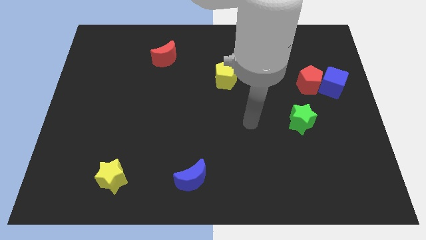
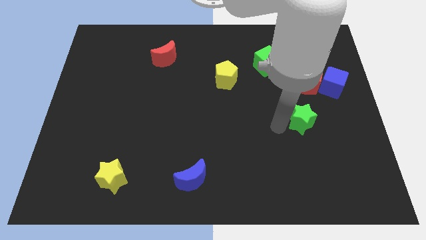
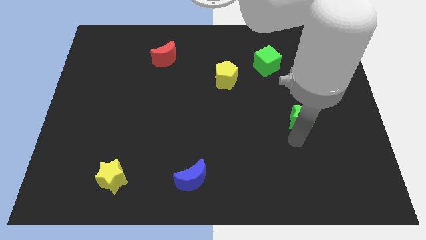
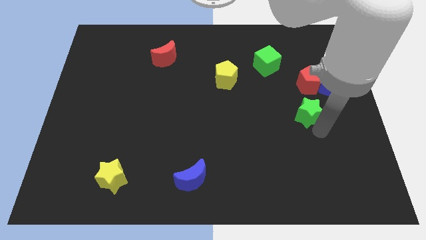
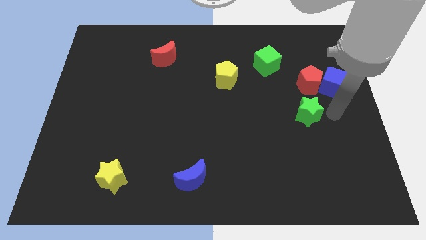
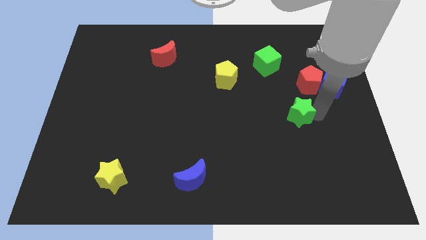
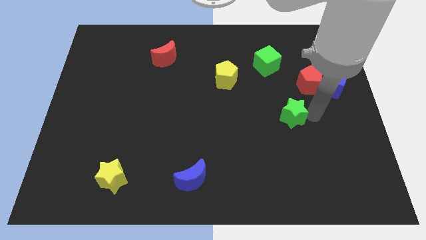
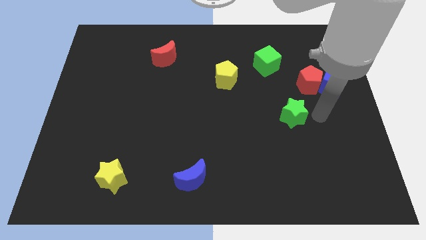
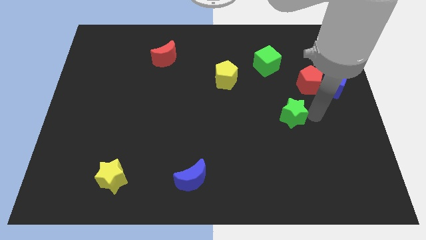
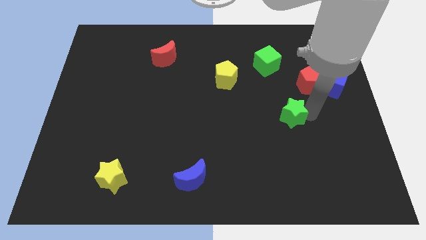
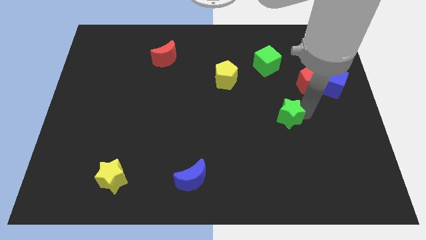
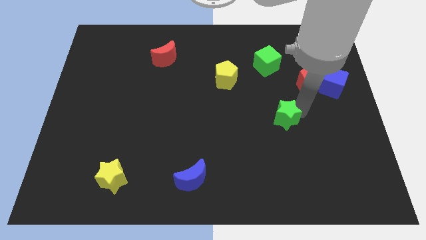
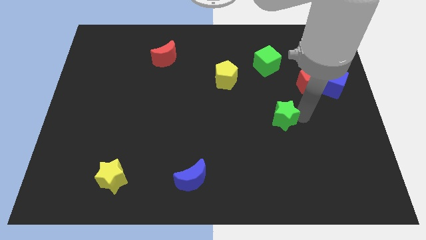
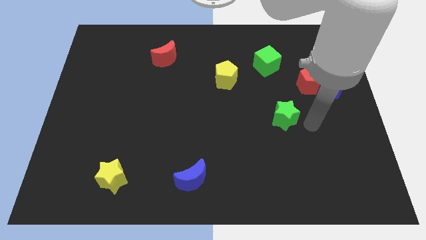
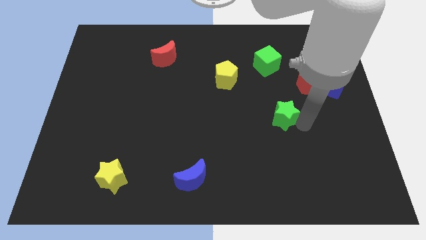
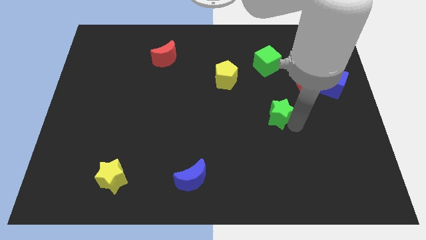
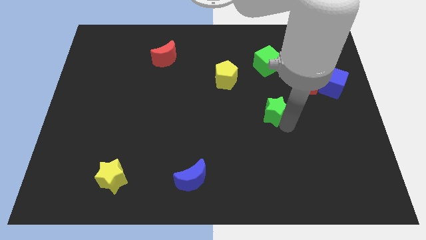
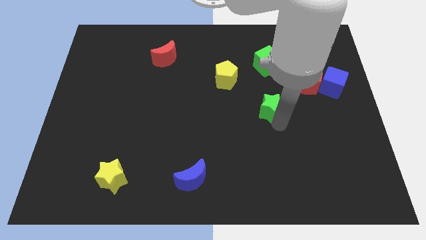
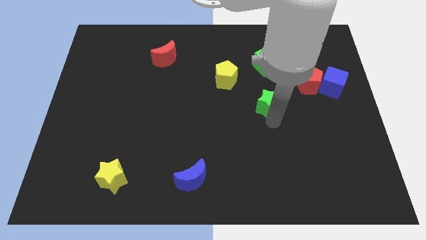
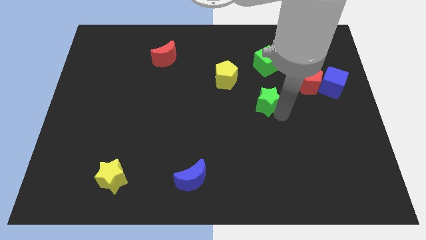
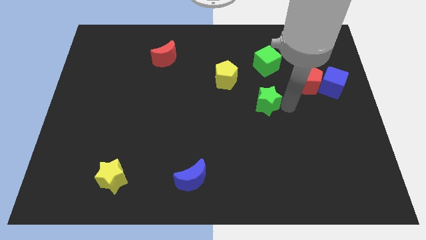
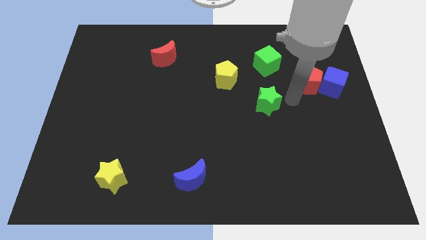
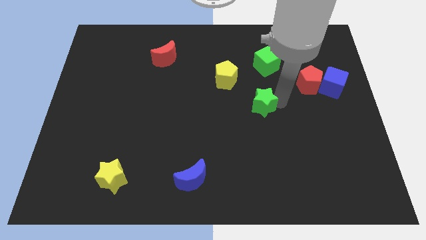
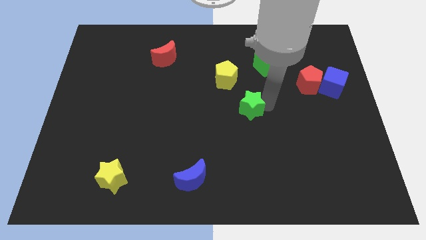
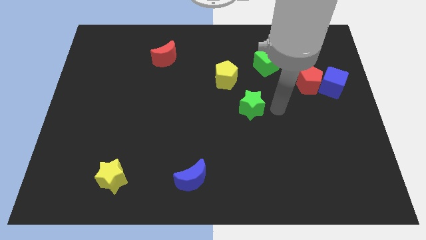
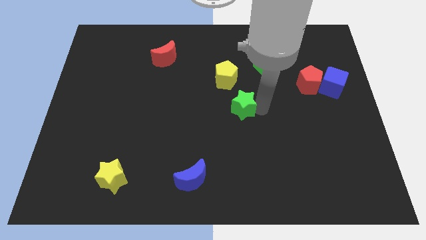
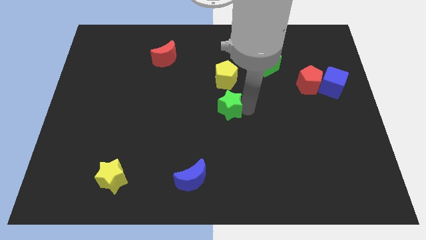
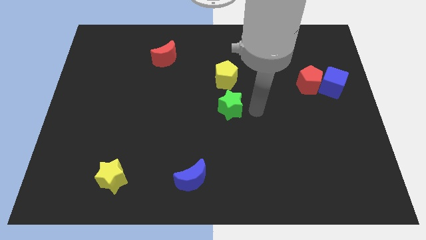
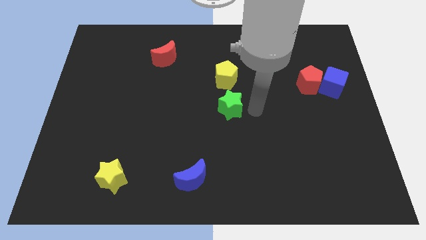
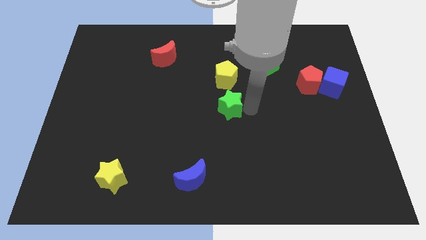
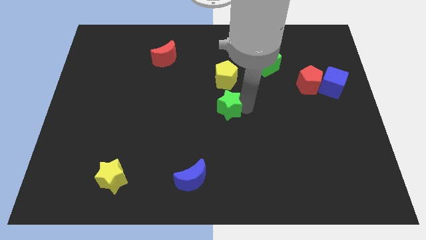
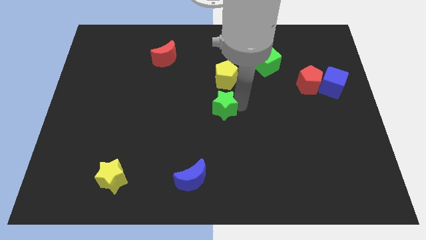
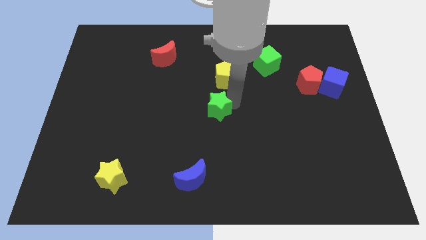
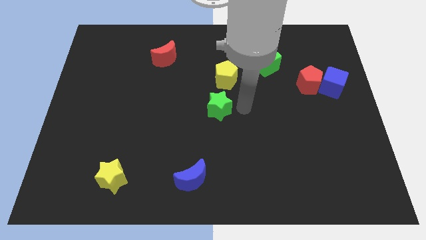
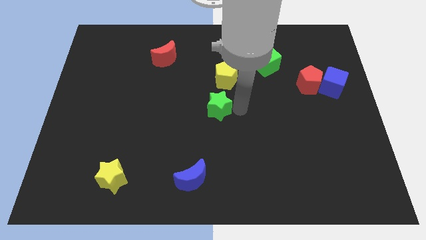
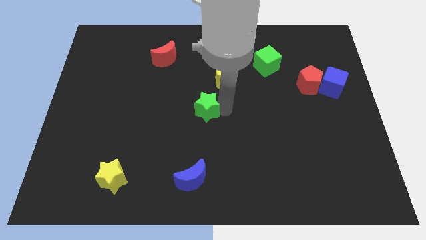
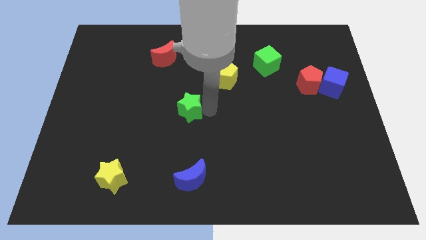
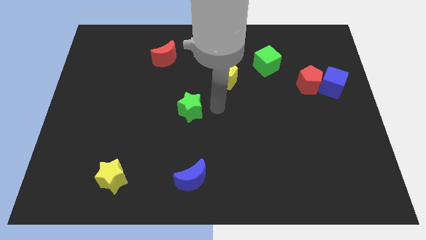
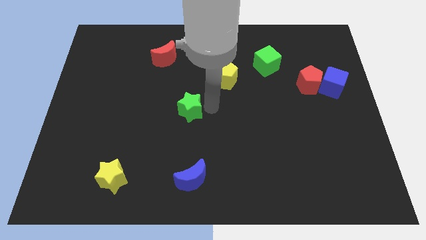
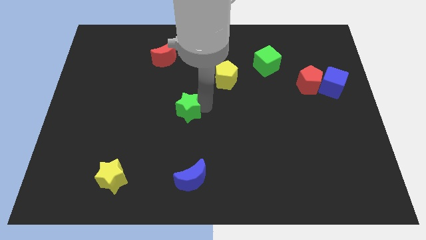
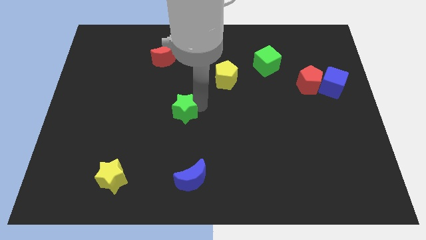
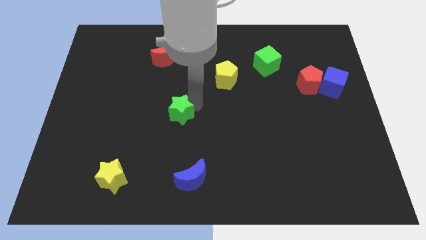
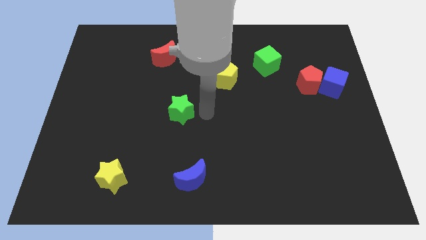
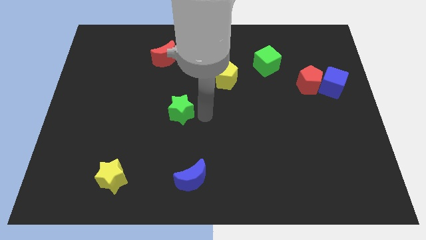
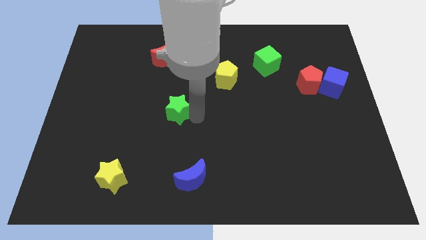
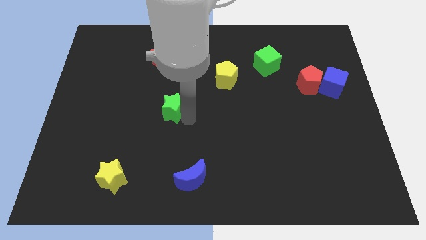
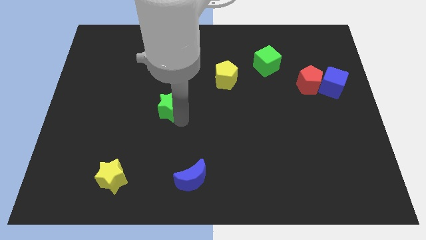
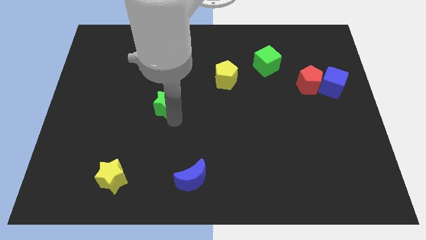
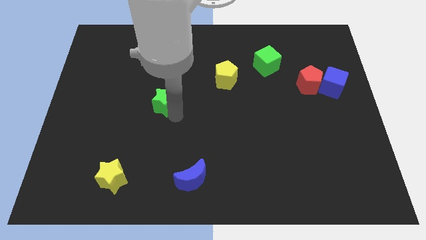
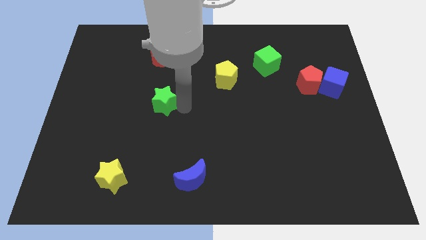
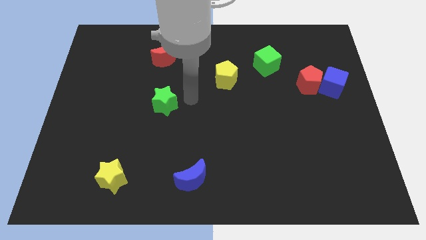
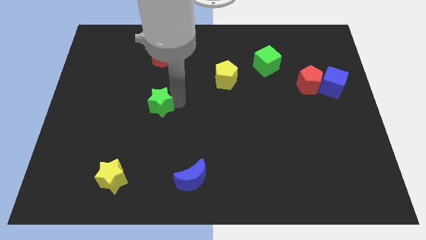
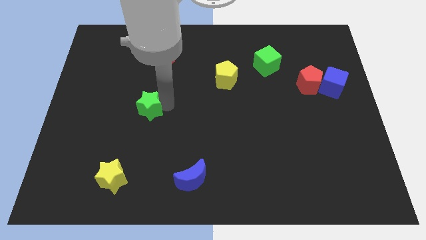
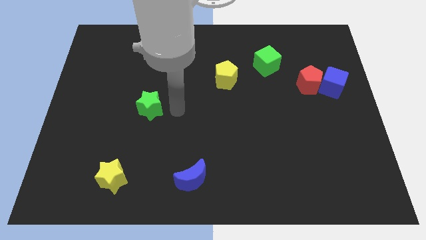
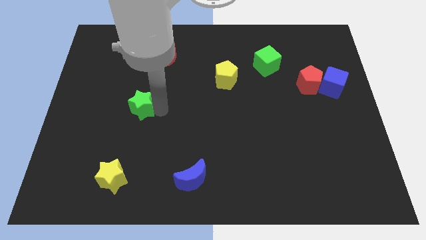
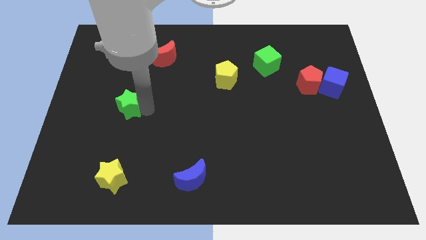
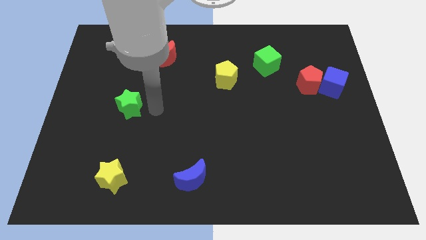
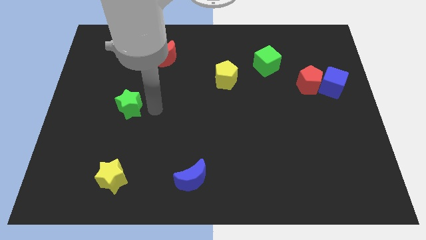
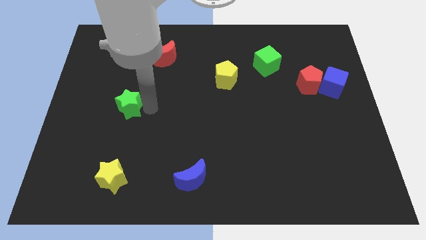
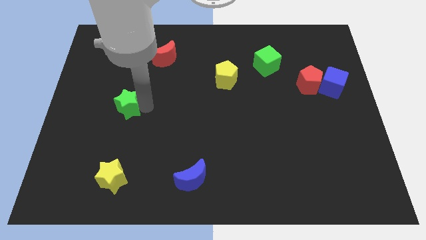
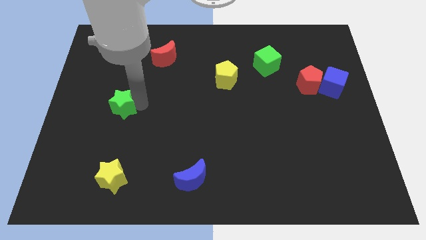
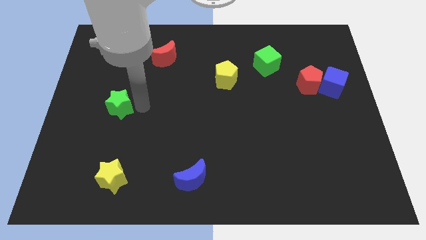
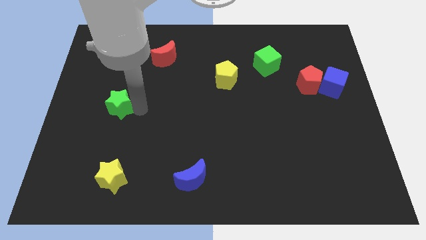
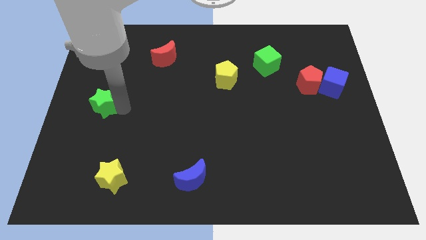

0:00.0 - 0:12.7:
move the green star to the left side of the board

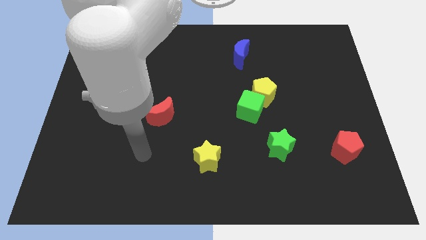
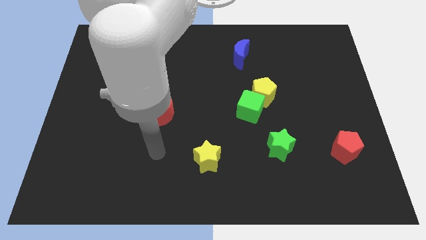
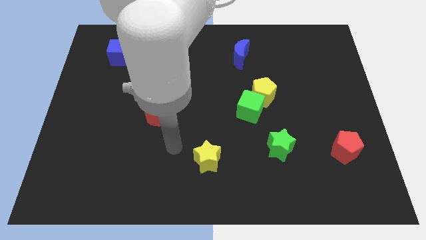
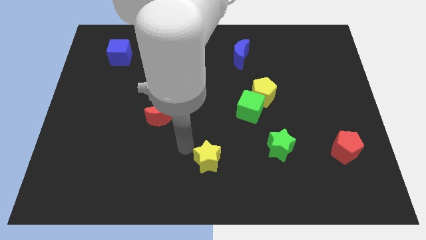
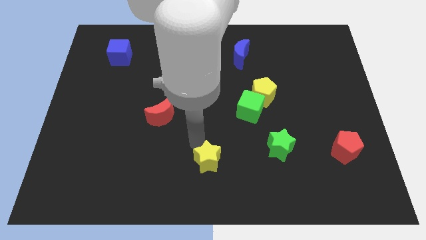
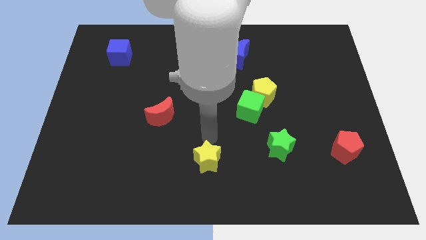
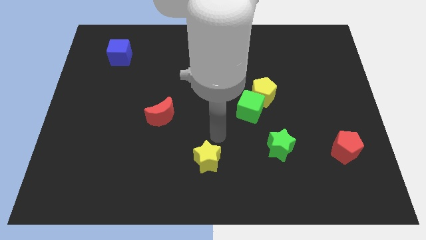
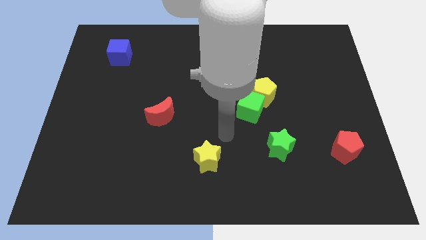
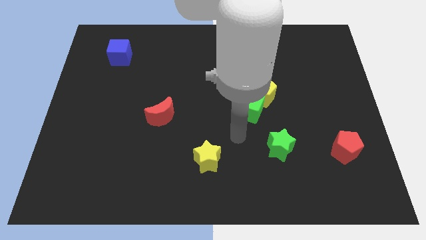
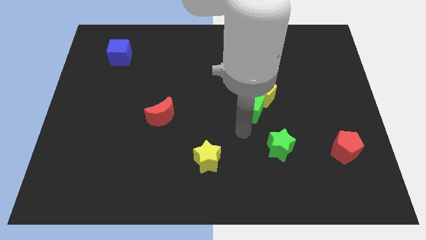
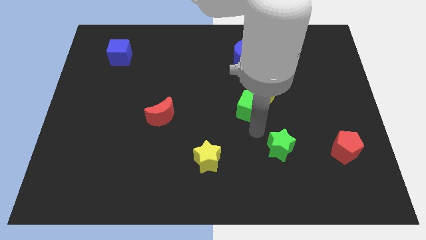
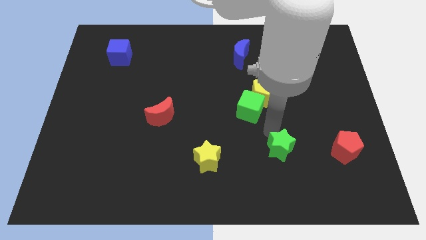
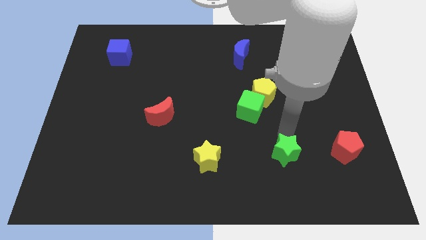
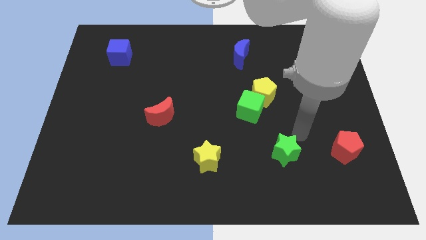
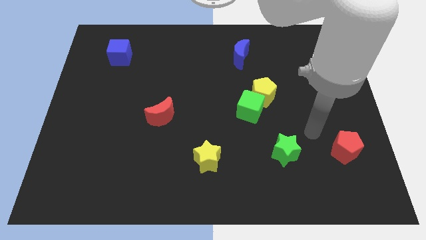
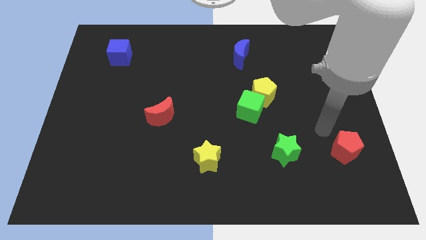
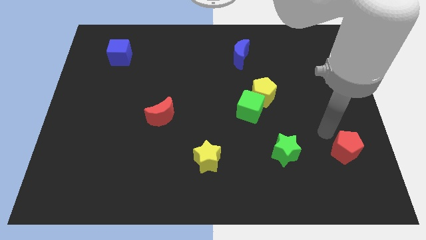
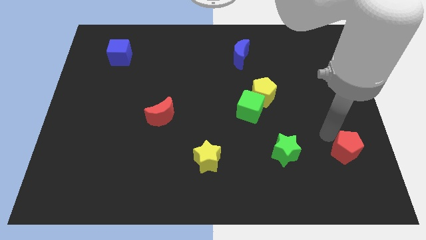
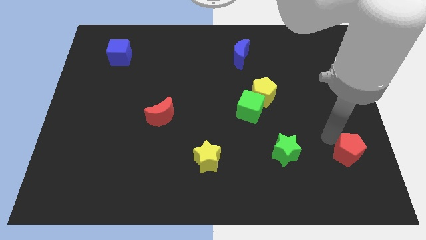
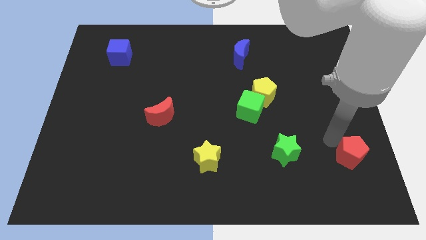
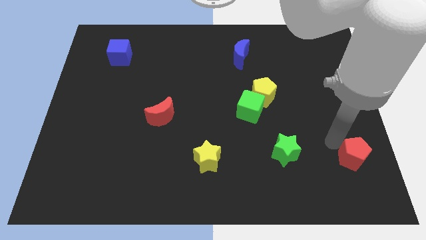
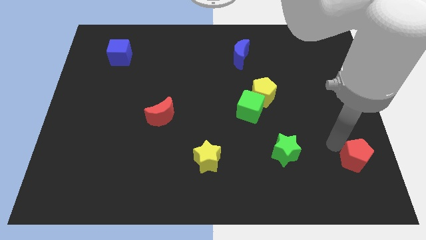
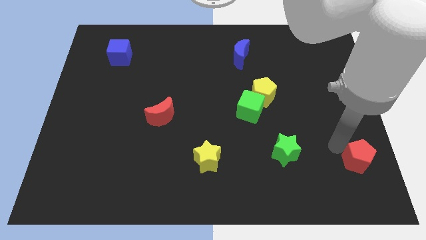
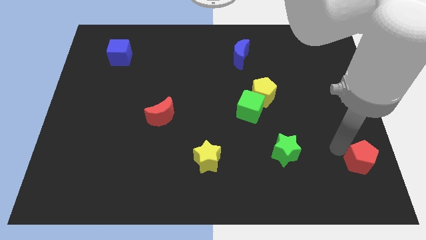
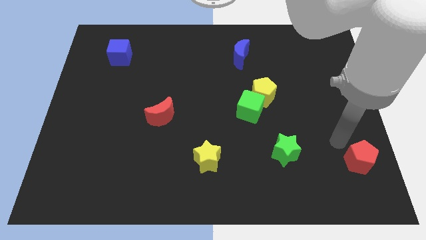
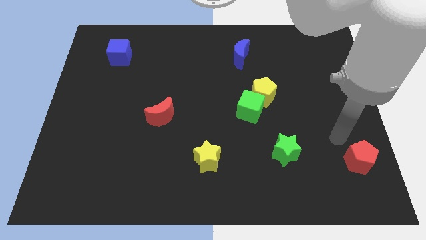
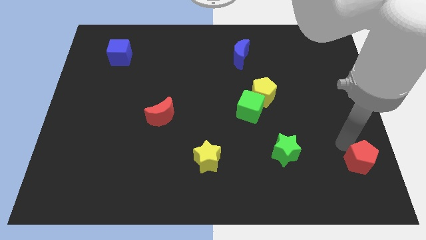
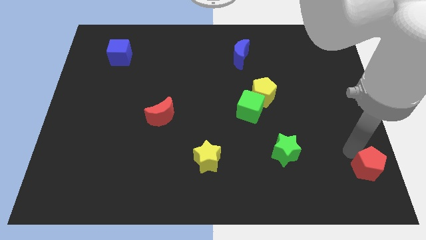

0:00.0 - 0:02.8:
slide the red pentagon to the bottom right corner
